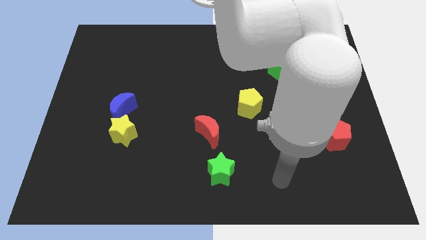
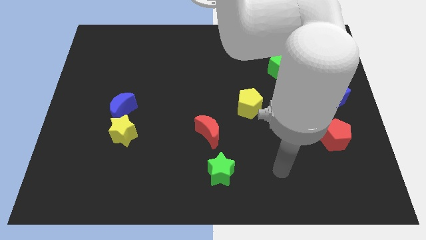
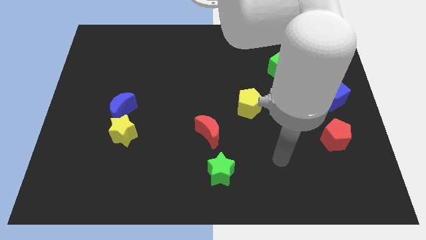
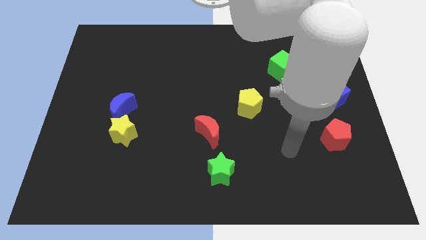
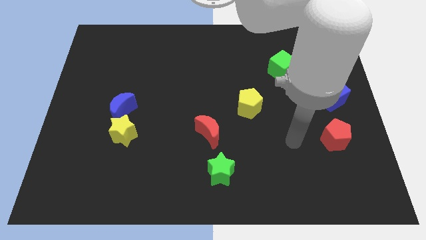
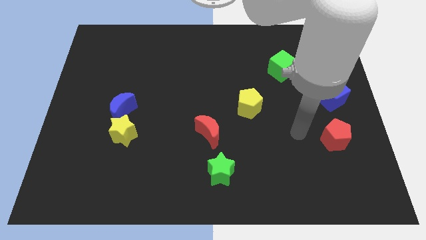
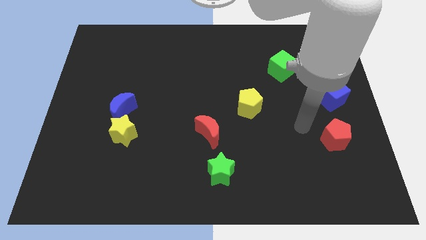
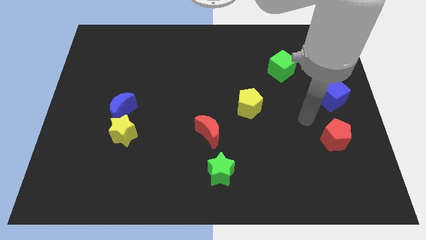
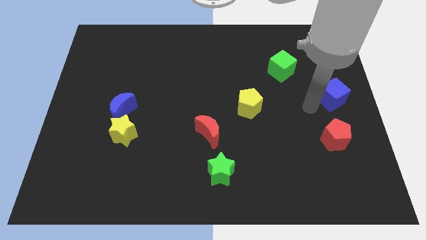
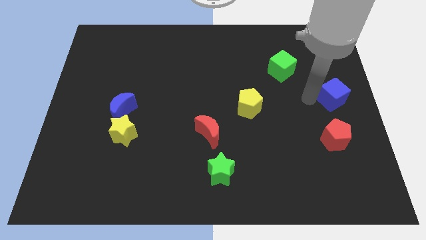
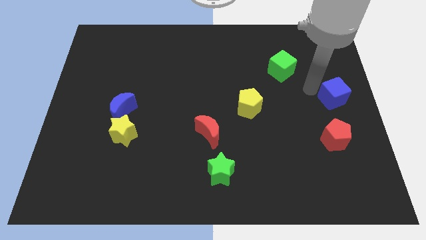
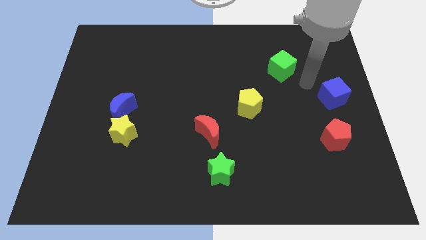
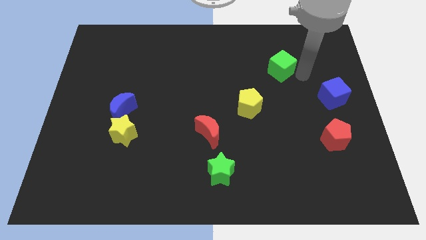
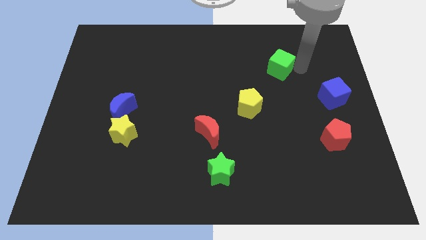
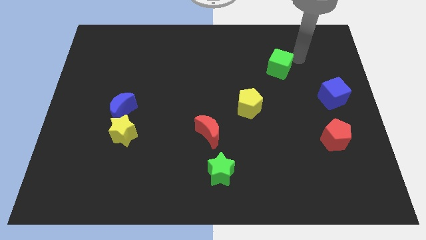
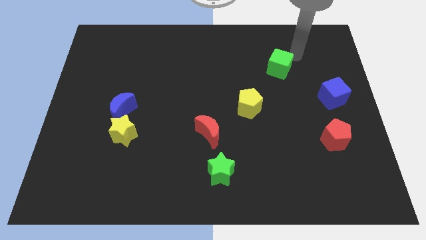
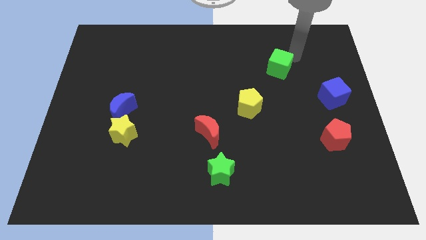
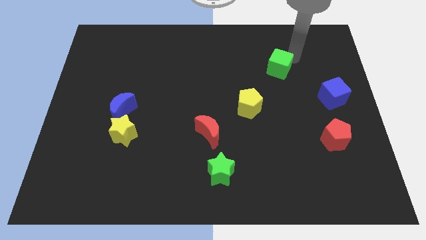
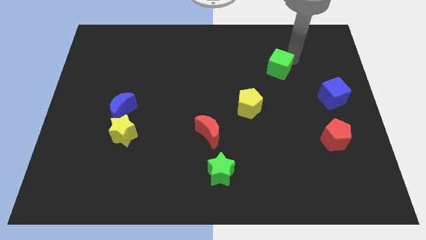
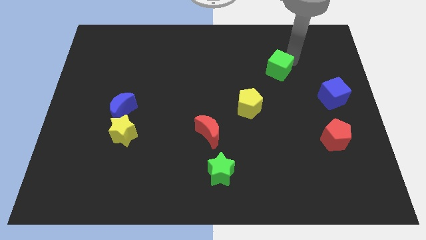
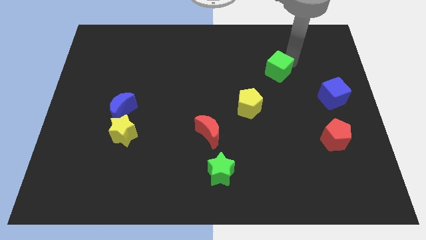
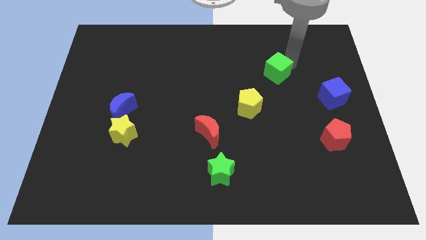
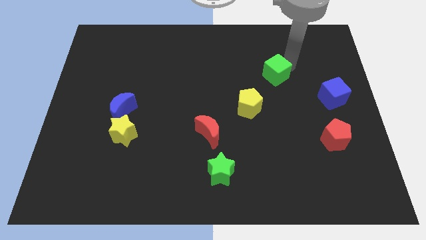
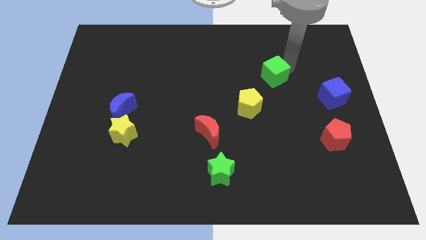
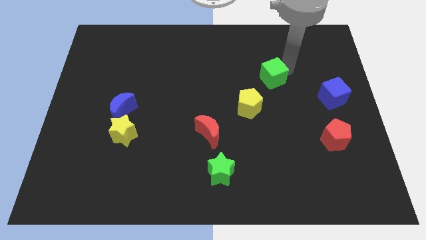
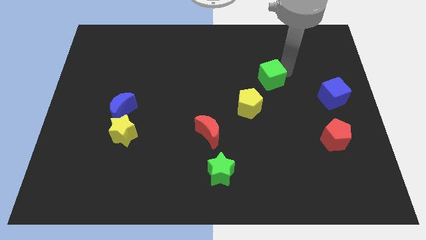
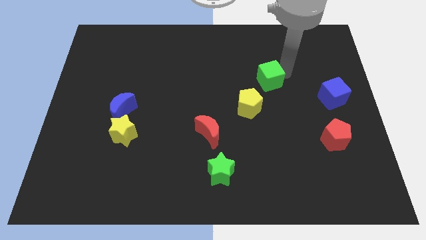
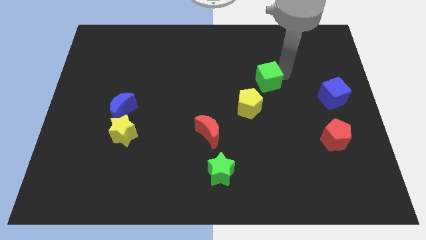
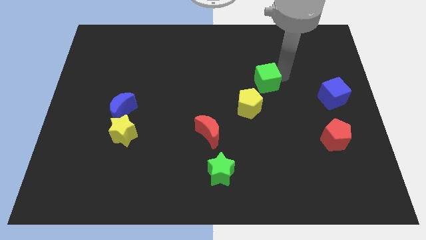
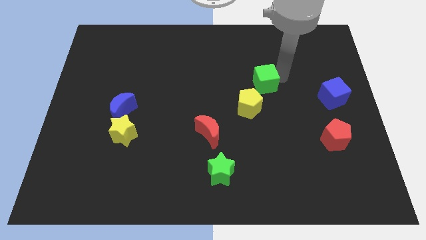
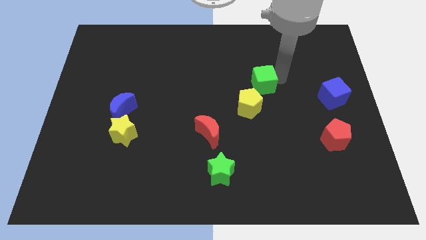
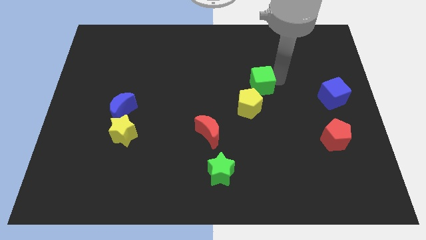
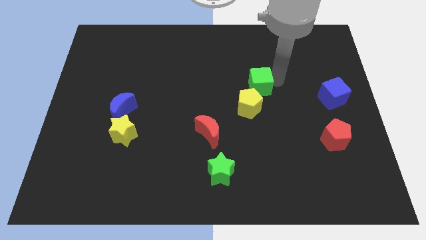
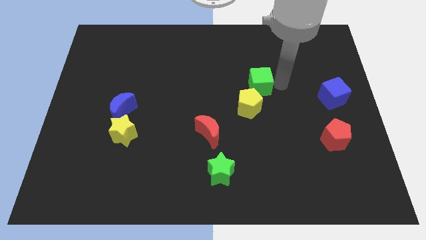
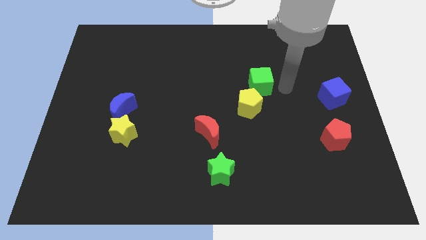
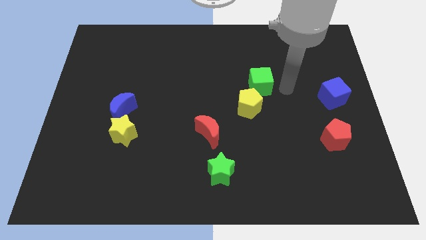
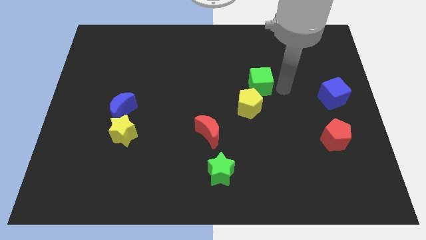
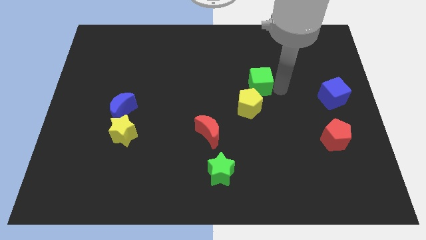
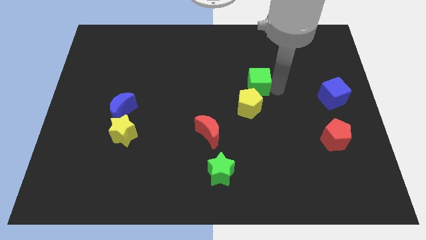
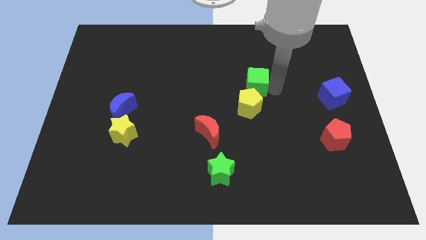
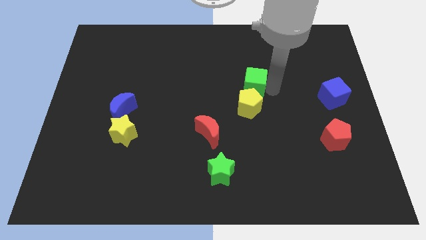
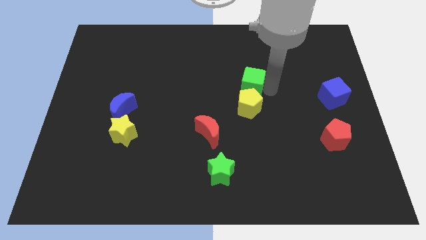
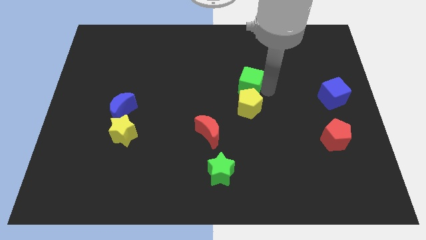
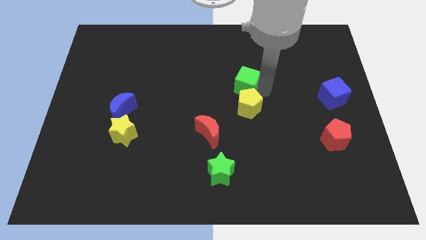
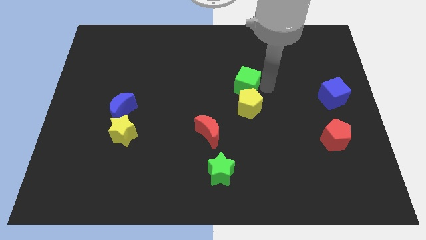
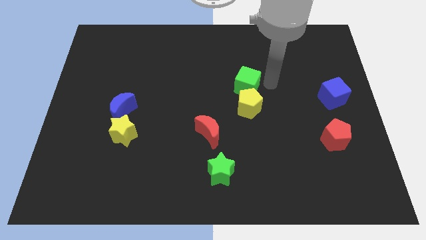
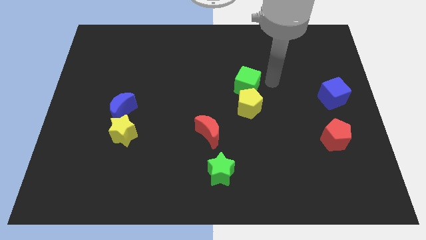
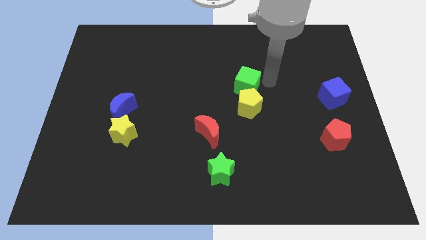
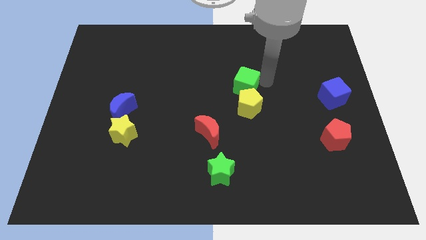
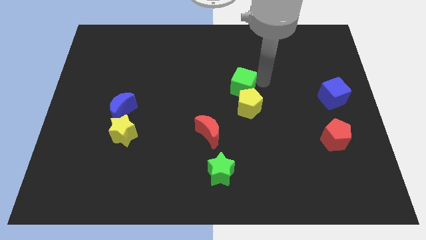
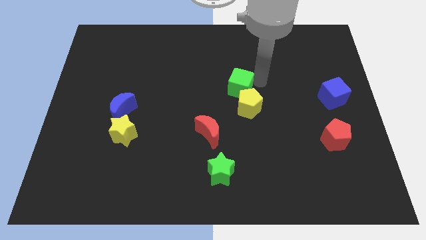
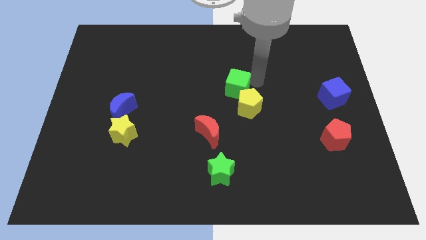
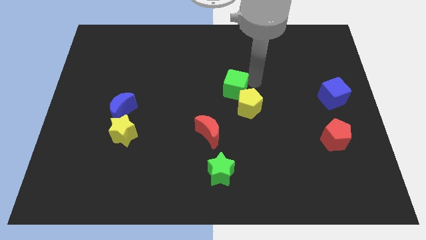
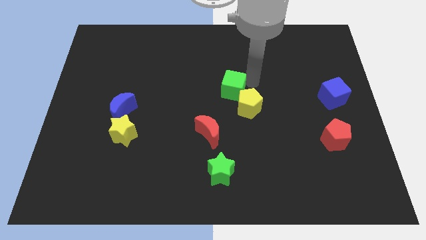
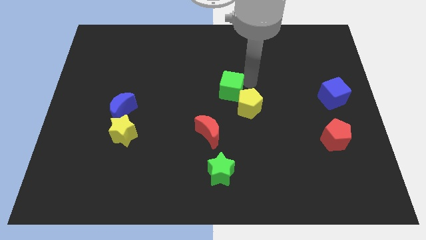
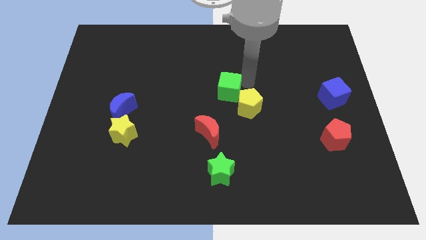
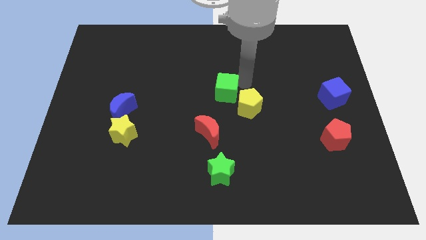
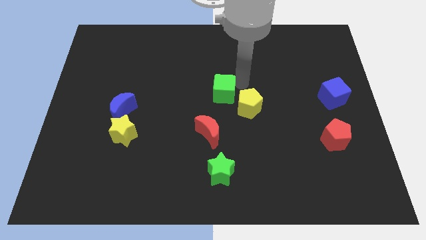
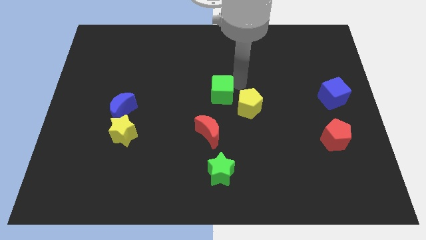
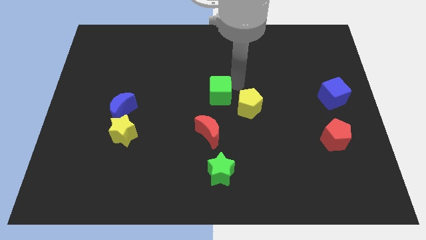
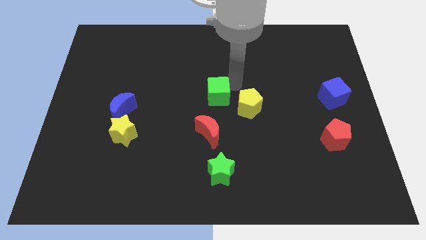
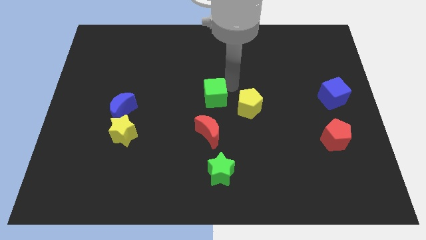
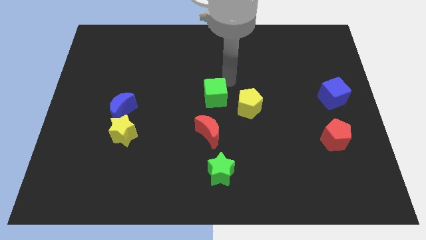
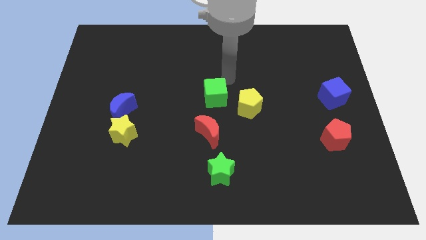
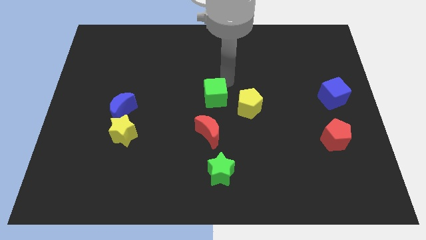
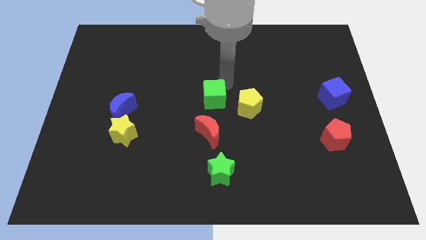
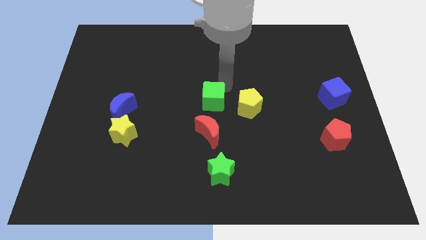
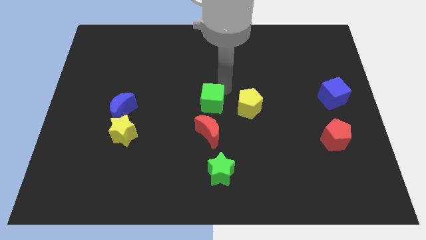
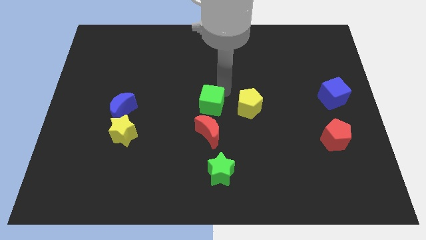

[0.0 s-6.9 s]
push the green cube down and then to the left

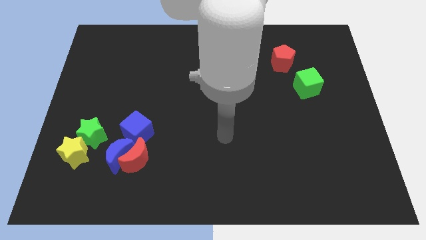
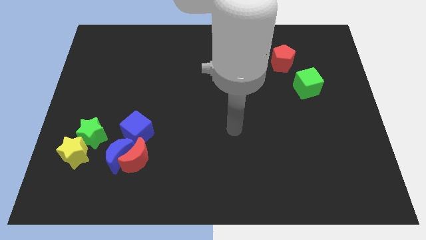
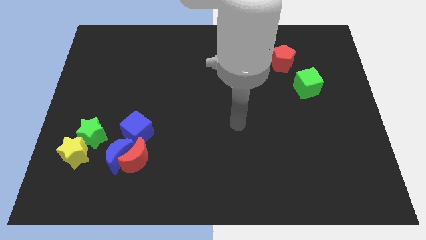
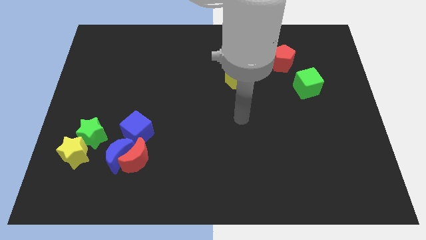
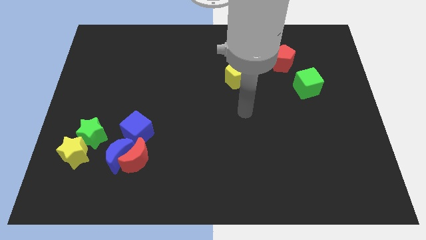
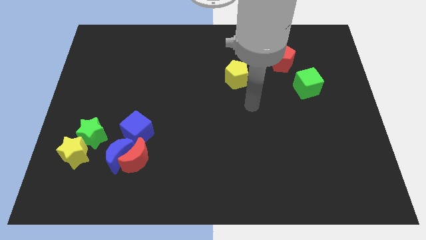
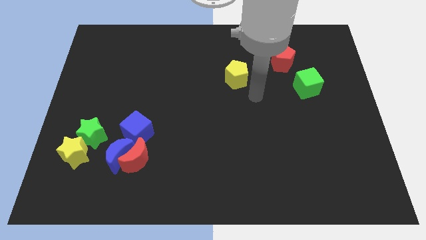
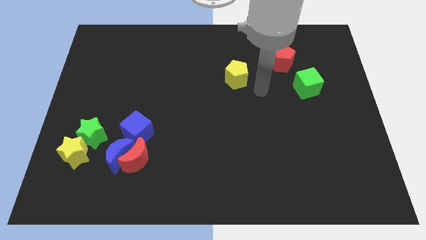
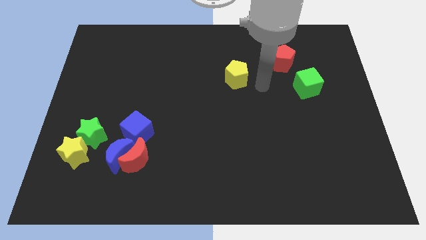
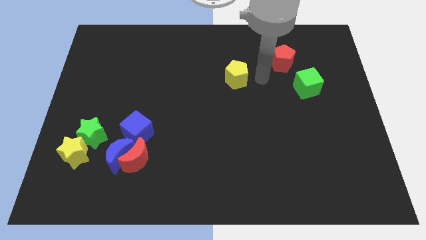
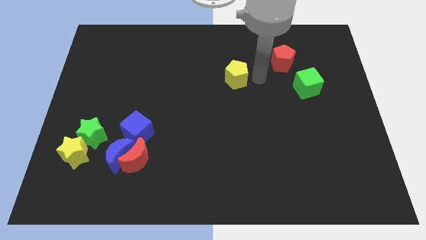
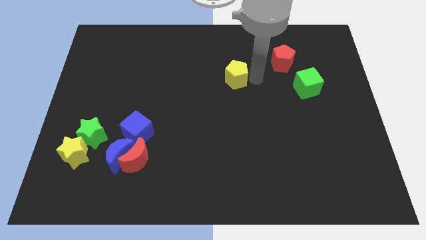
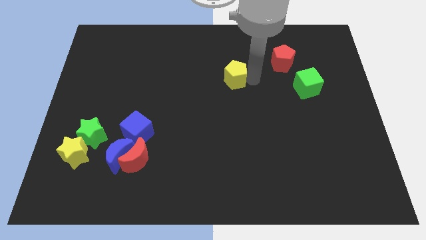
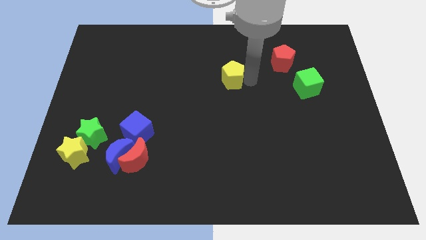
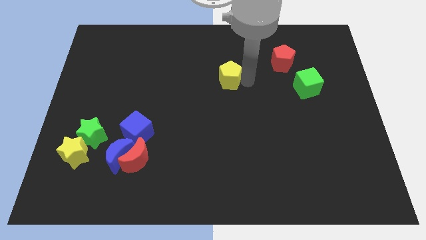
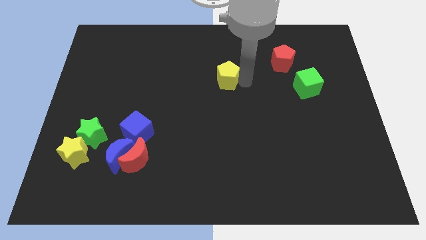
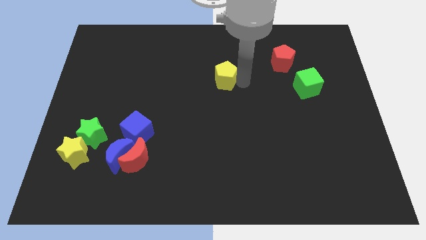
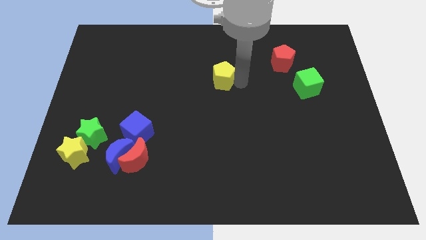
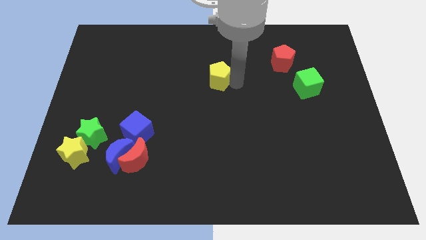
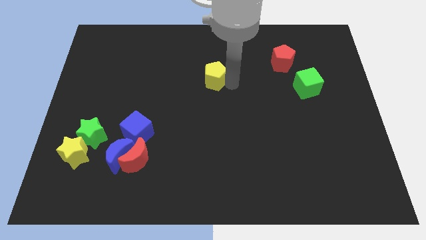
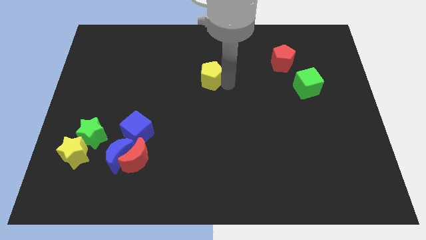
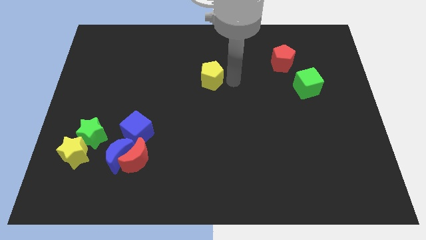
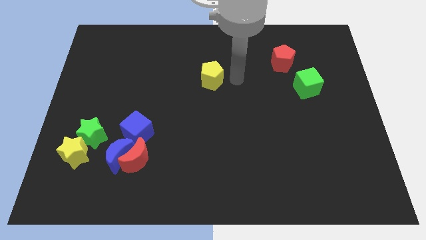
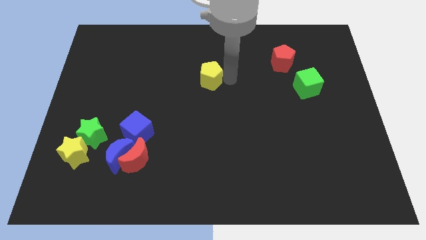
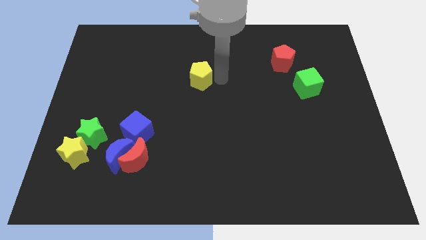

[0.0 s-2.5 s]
slide the yellow pentagon a little bit left
